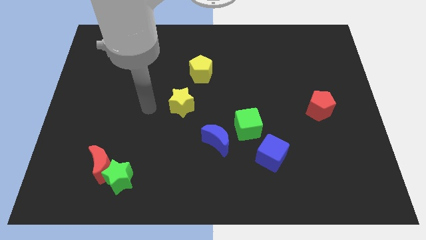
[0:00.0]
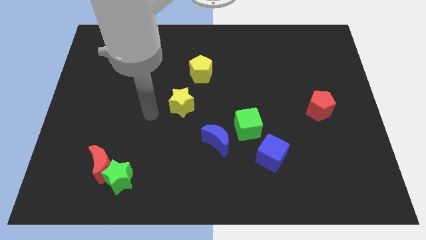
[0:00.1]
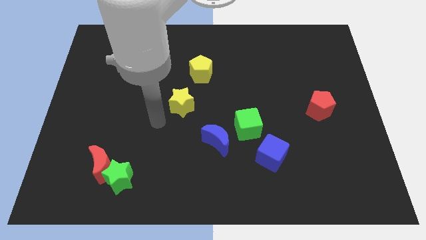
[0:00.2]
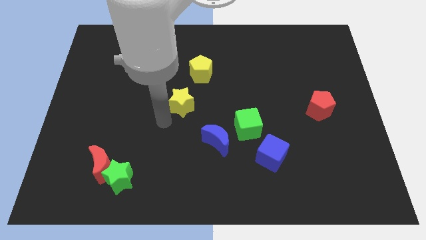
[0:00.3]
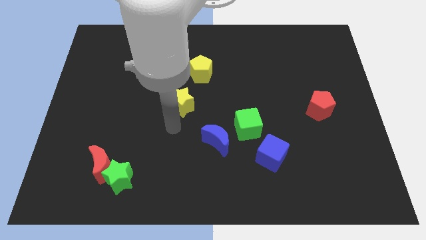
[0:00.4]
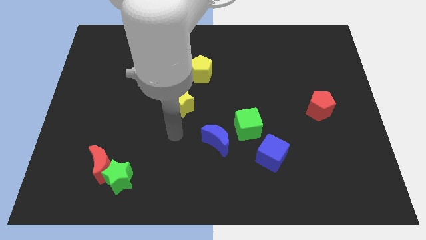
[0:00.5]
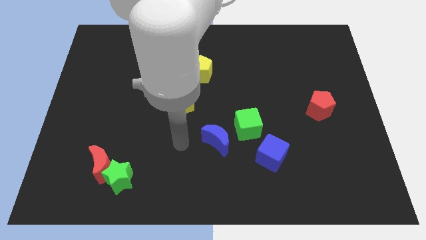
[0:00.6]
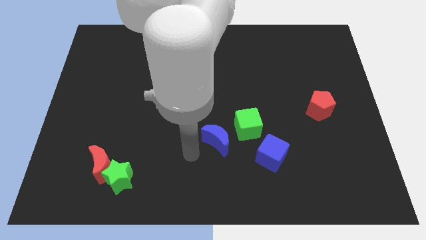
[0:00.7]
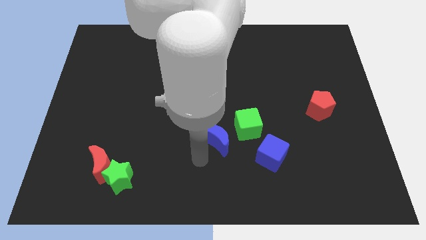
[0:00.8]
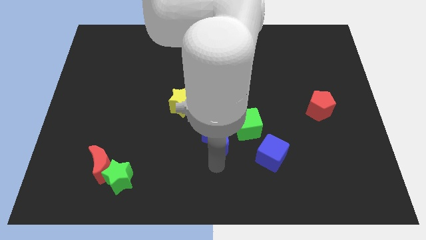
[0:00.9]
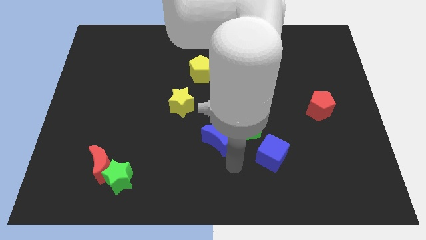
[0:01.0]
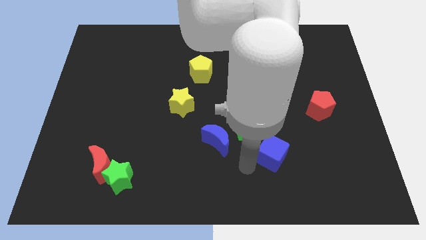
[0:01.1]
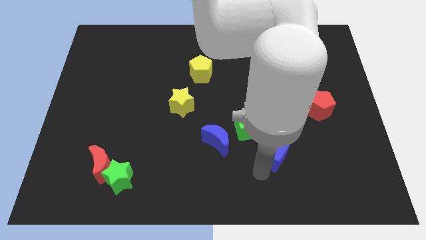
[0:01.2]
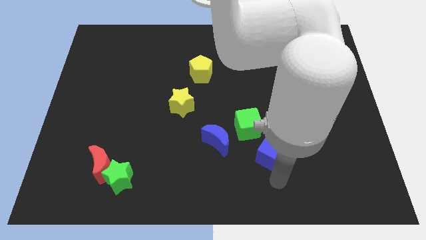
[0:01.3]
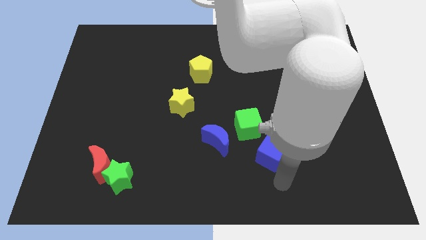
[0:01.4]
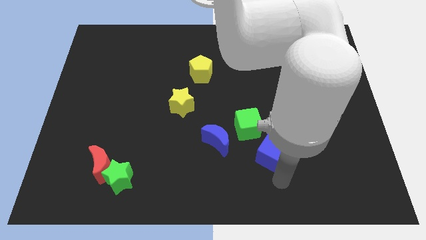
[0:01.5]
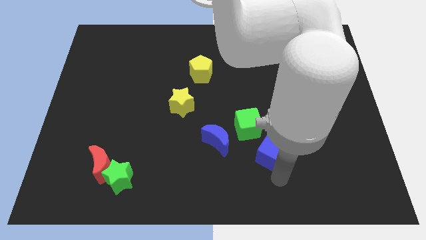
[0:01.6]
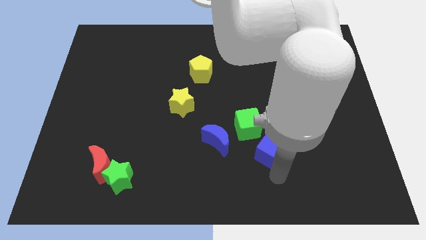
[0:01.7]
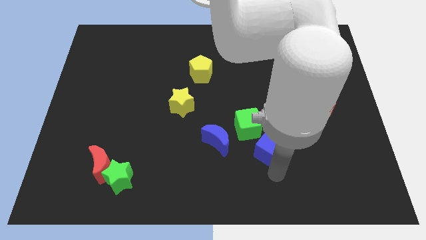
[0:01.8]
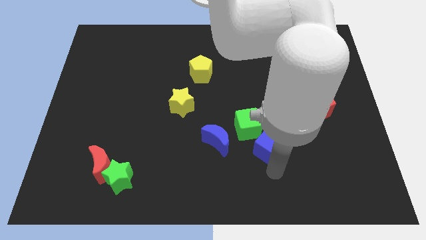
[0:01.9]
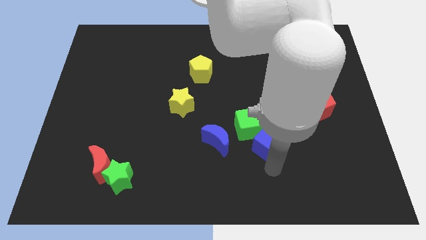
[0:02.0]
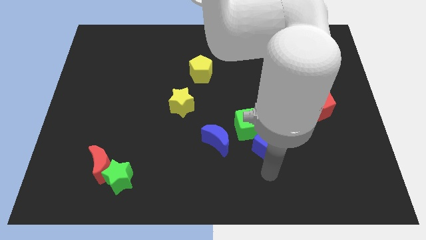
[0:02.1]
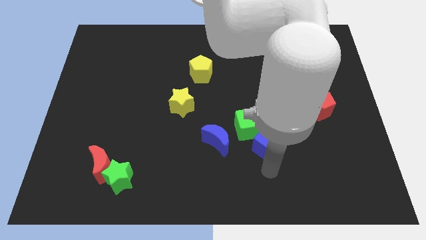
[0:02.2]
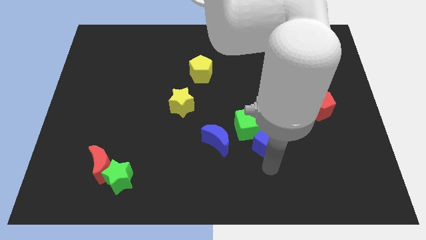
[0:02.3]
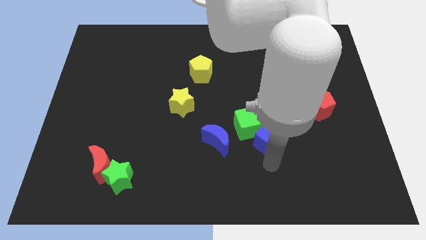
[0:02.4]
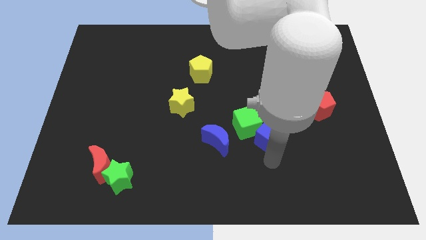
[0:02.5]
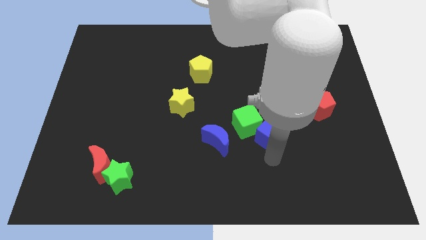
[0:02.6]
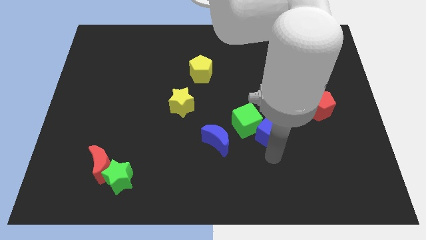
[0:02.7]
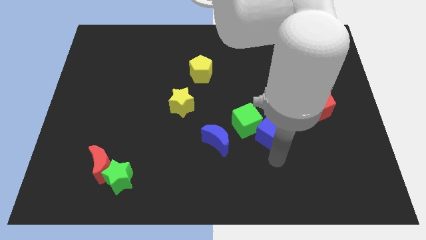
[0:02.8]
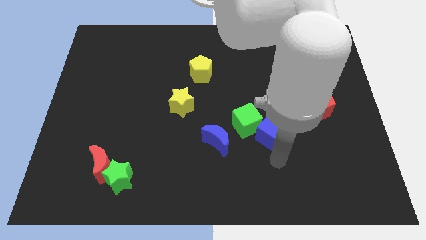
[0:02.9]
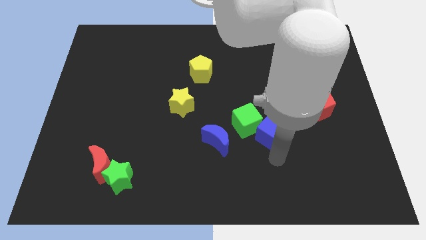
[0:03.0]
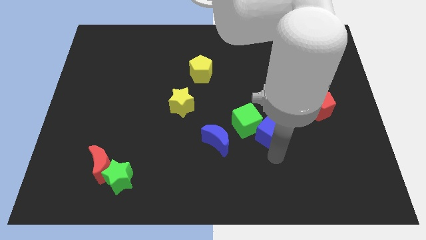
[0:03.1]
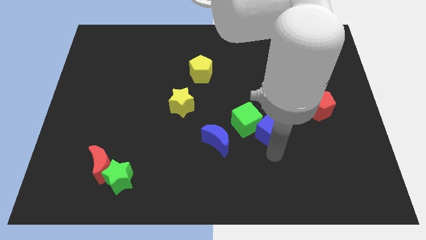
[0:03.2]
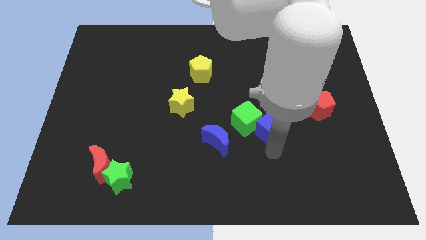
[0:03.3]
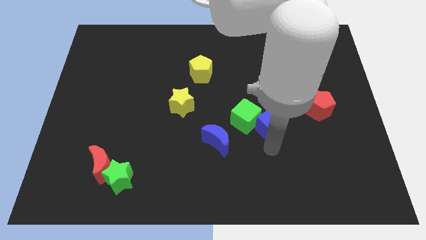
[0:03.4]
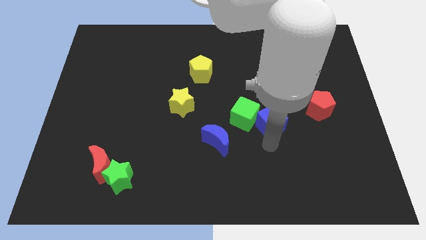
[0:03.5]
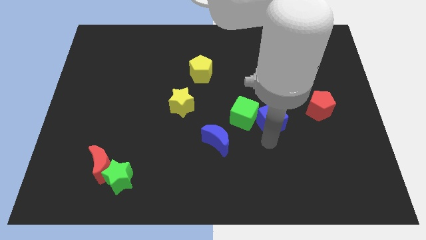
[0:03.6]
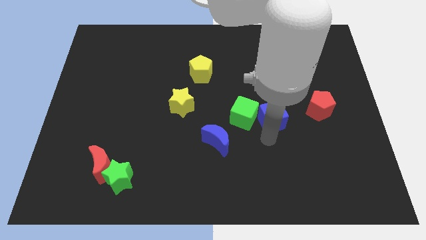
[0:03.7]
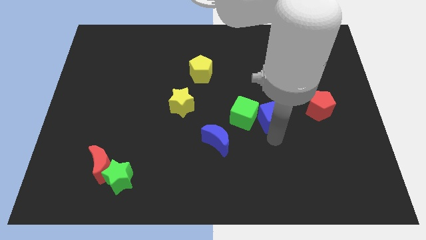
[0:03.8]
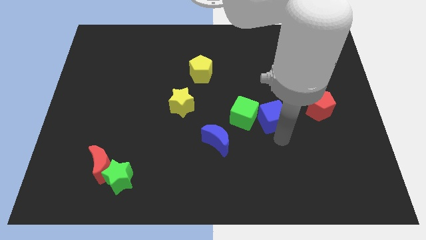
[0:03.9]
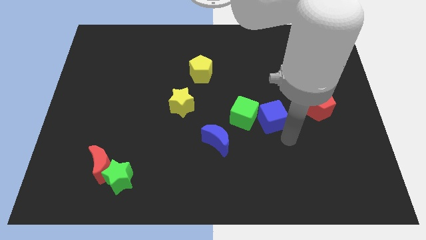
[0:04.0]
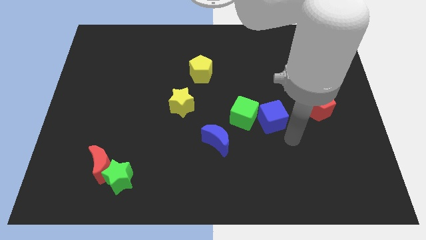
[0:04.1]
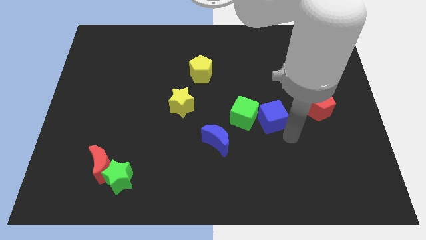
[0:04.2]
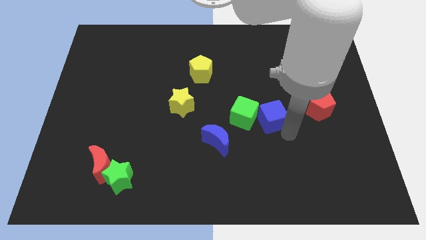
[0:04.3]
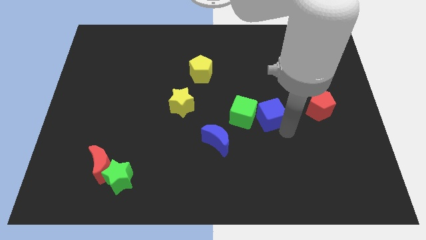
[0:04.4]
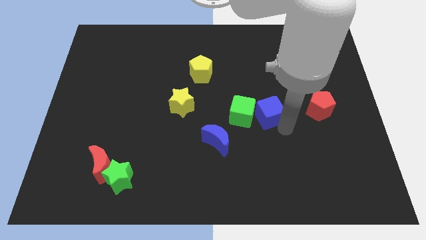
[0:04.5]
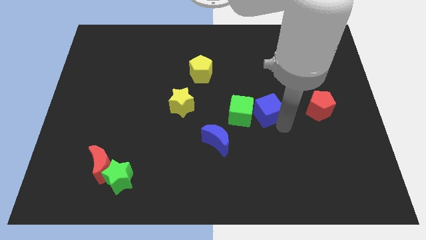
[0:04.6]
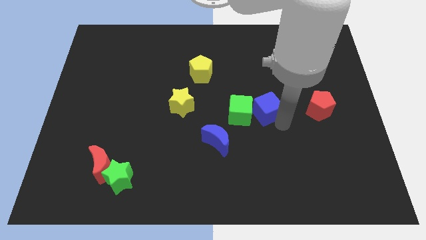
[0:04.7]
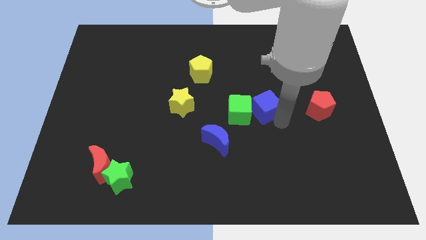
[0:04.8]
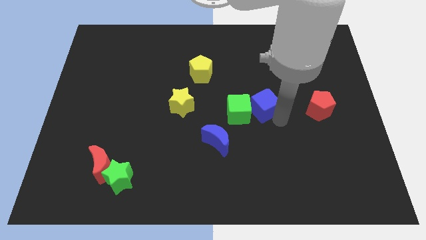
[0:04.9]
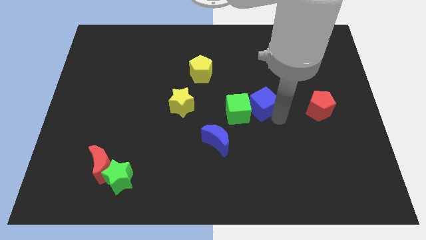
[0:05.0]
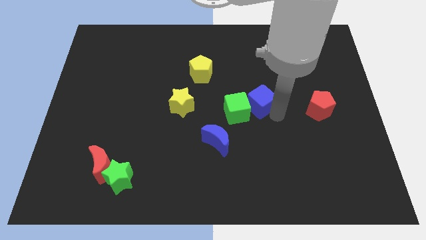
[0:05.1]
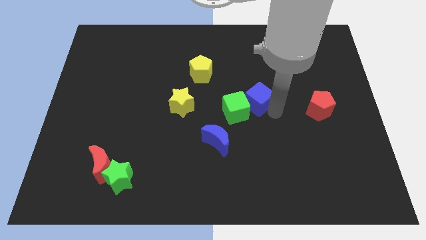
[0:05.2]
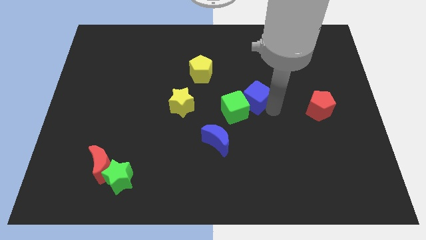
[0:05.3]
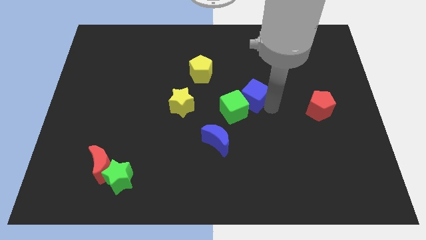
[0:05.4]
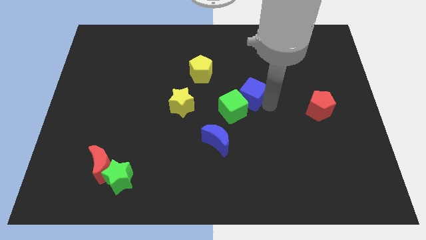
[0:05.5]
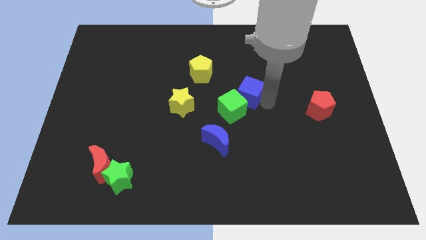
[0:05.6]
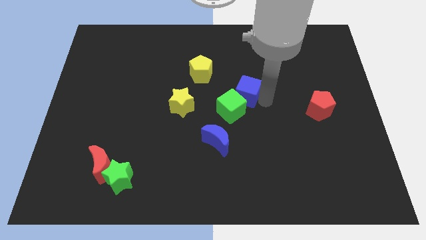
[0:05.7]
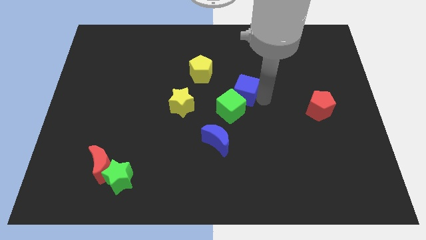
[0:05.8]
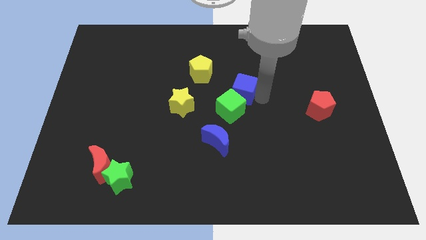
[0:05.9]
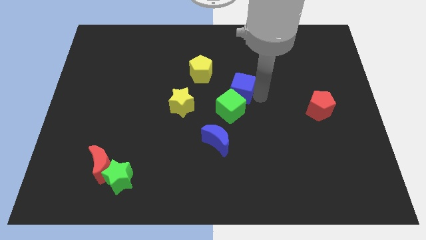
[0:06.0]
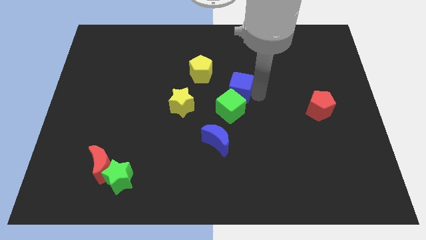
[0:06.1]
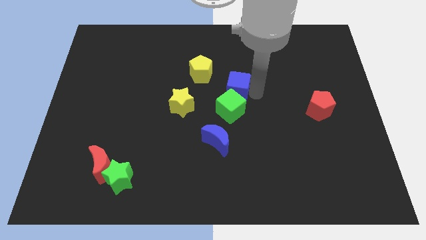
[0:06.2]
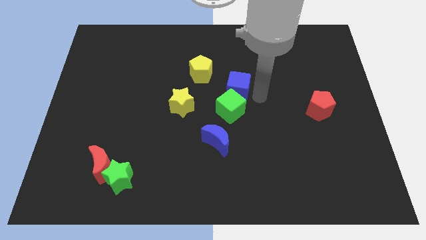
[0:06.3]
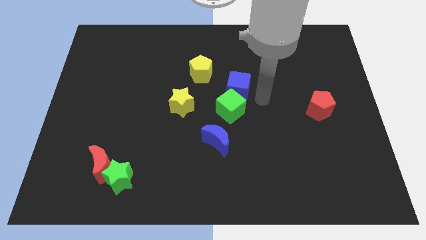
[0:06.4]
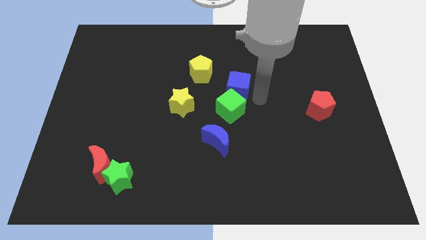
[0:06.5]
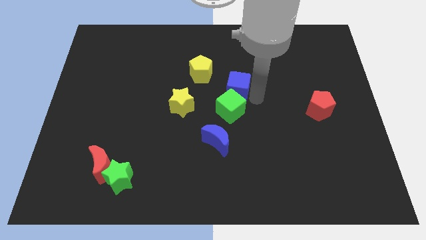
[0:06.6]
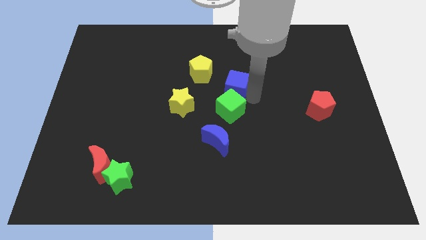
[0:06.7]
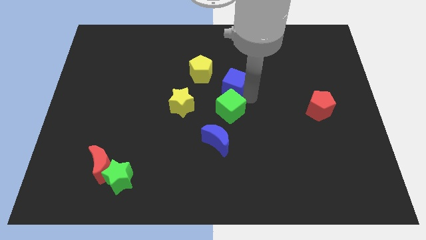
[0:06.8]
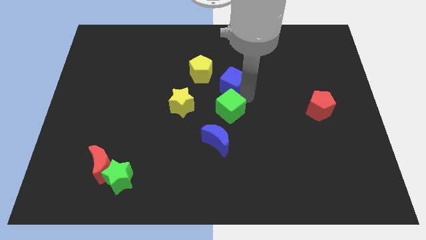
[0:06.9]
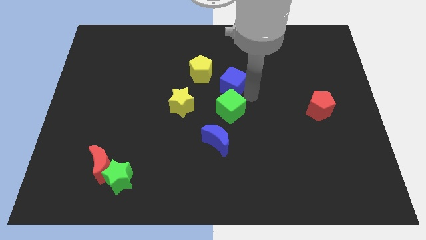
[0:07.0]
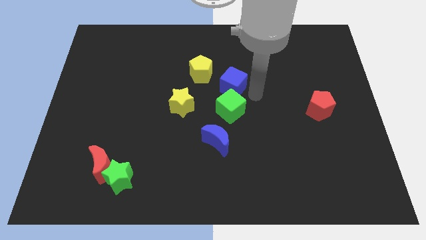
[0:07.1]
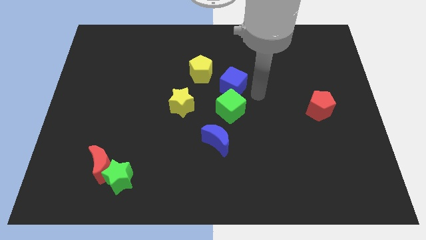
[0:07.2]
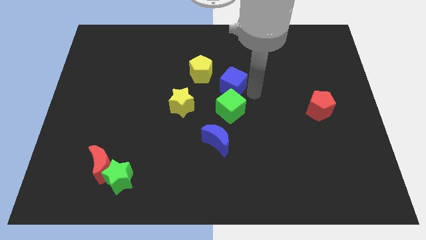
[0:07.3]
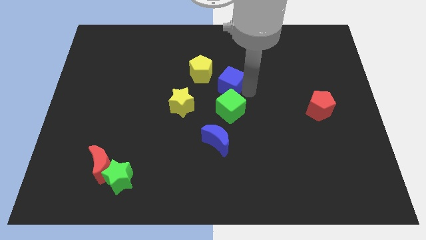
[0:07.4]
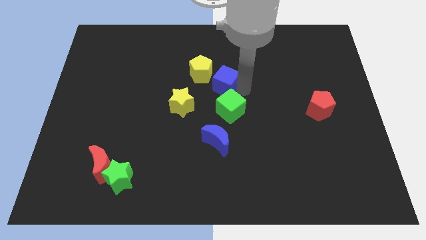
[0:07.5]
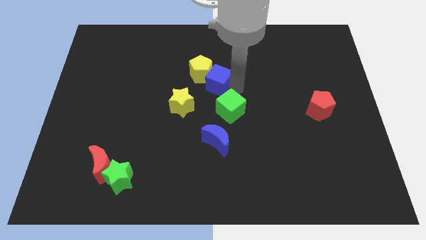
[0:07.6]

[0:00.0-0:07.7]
push the blue cube next to the yellow pentagon
